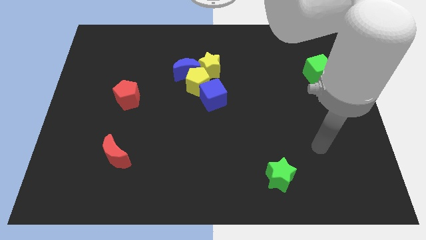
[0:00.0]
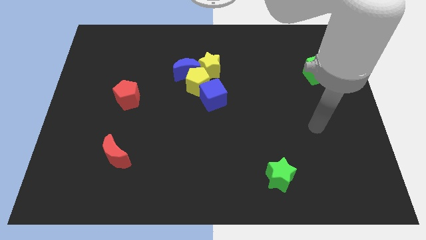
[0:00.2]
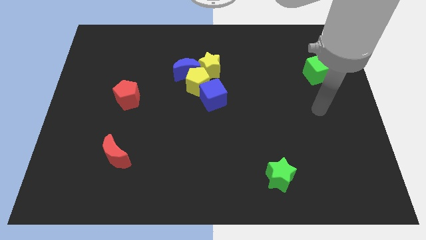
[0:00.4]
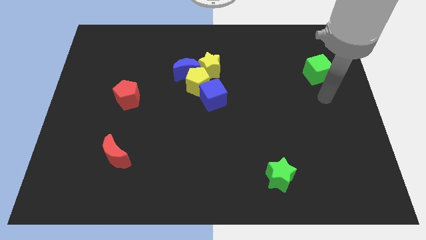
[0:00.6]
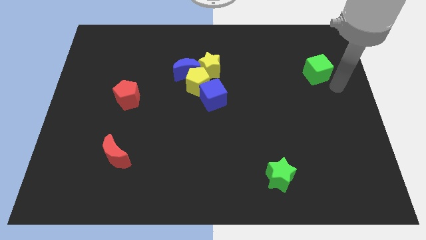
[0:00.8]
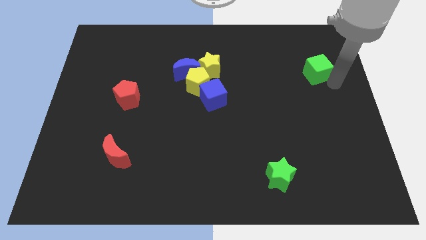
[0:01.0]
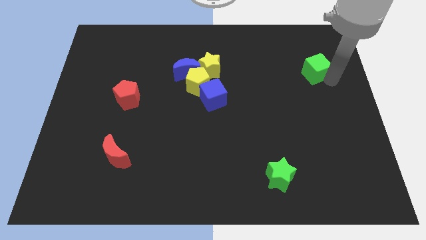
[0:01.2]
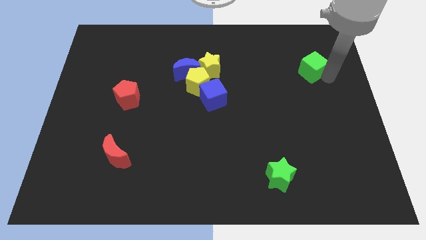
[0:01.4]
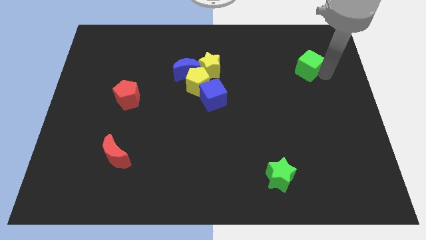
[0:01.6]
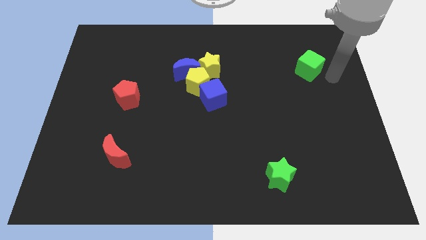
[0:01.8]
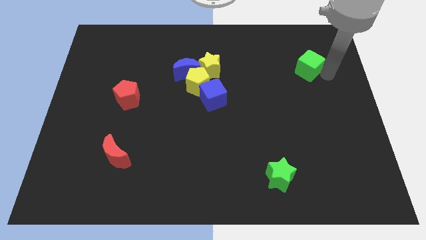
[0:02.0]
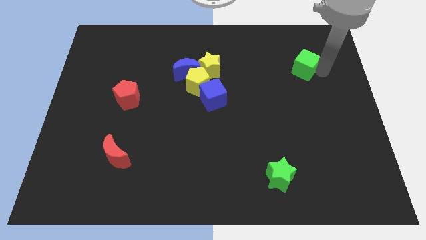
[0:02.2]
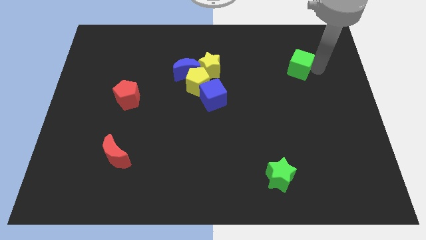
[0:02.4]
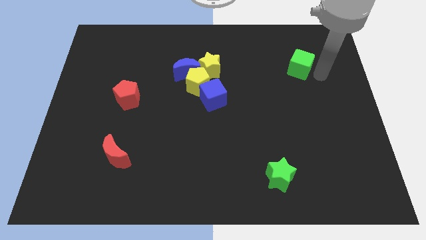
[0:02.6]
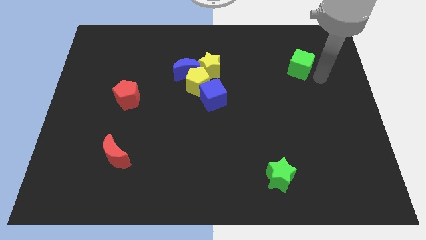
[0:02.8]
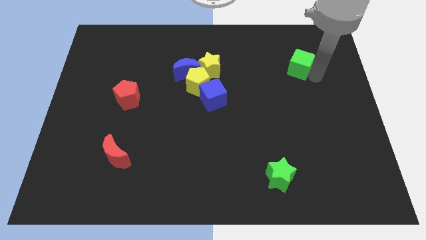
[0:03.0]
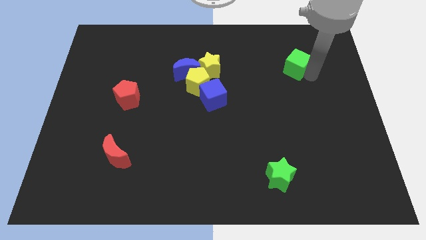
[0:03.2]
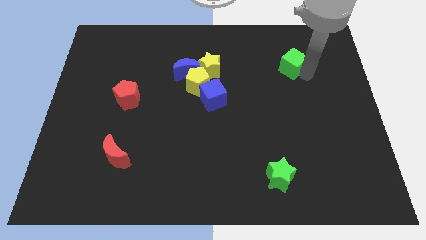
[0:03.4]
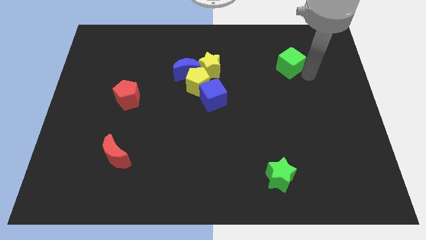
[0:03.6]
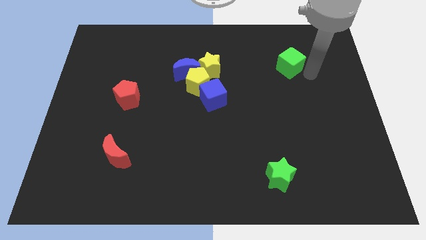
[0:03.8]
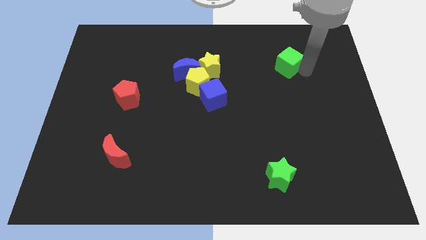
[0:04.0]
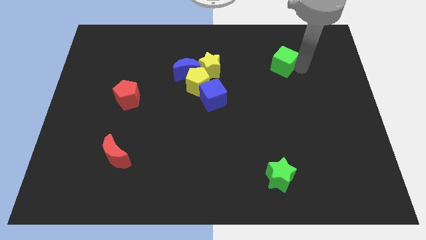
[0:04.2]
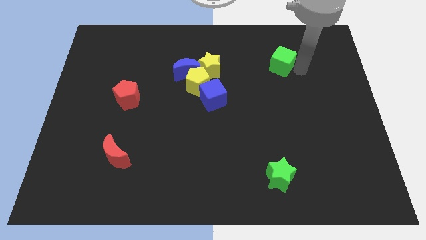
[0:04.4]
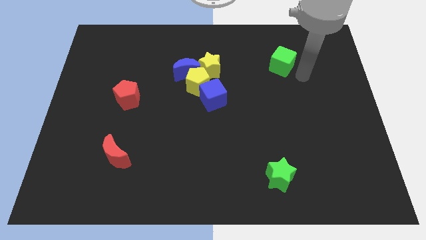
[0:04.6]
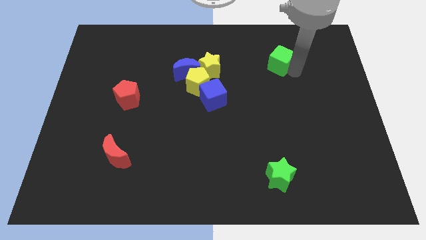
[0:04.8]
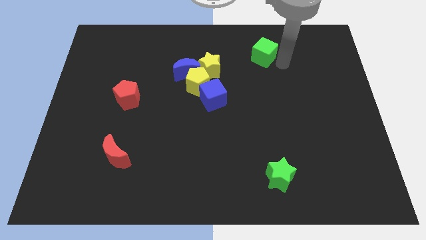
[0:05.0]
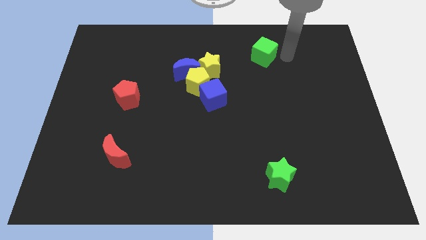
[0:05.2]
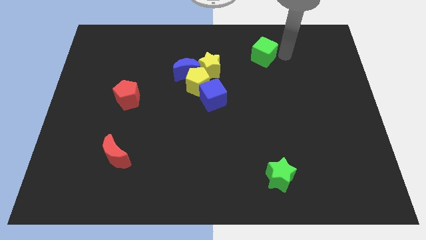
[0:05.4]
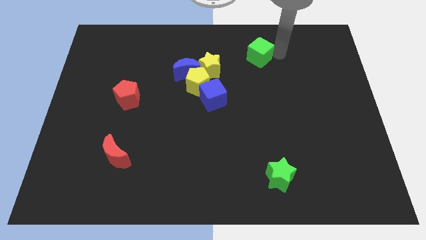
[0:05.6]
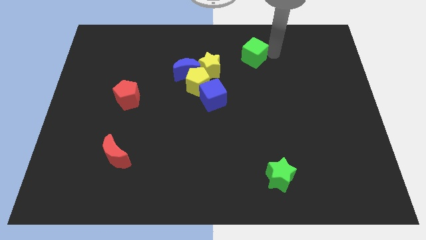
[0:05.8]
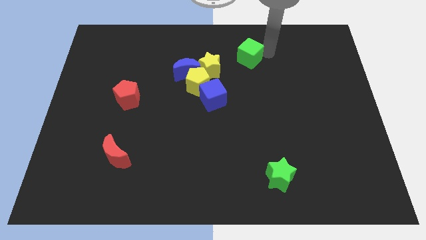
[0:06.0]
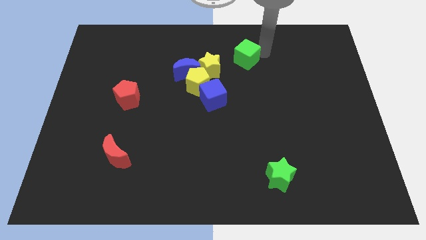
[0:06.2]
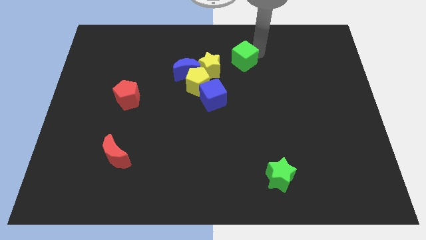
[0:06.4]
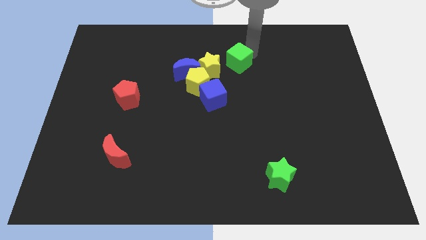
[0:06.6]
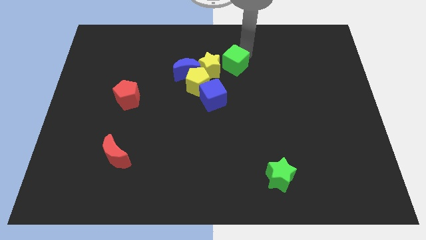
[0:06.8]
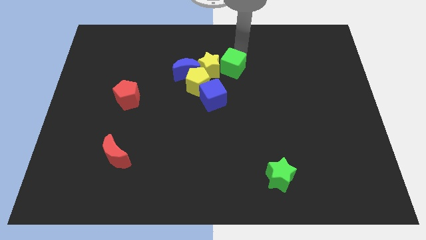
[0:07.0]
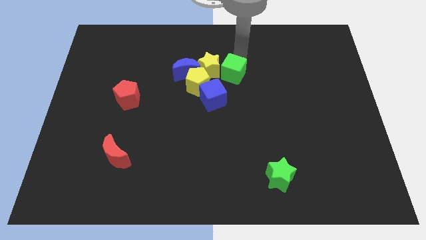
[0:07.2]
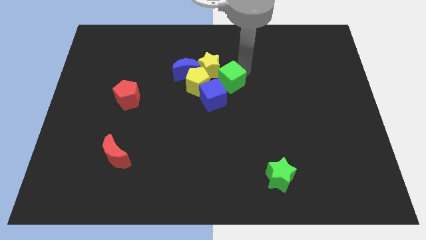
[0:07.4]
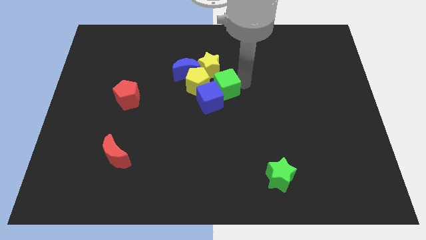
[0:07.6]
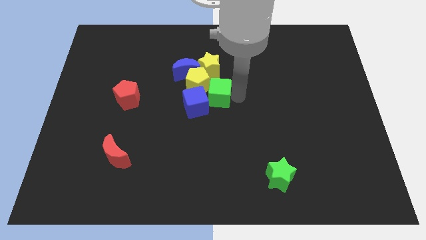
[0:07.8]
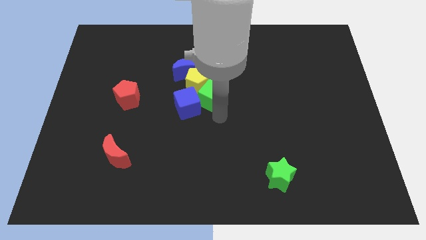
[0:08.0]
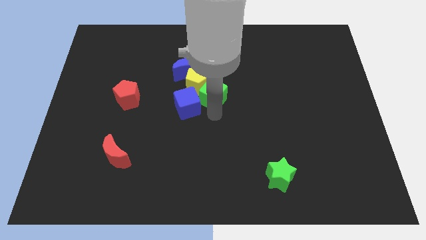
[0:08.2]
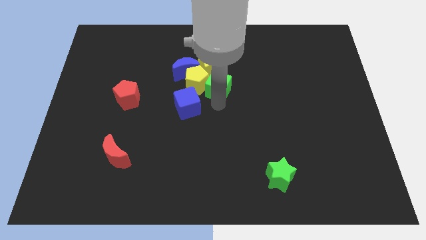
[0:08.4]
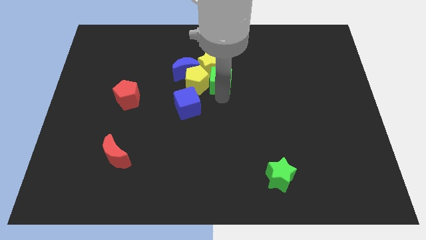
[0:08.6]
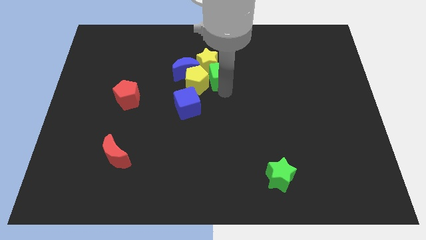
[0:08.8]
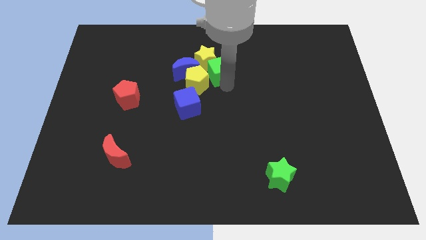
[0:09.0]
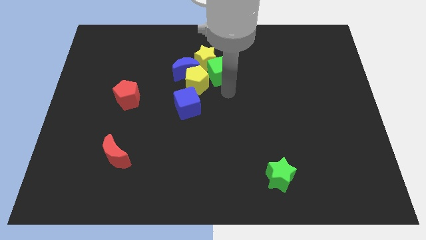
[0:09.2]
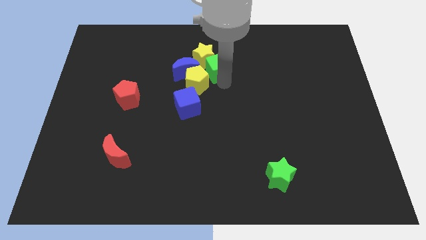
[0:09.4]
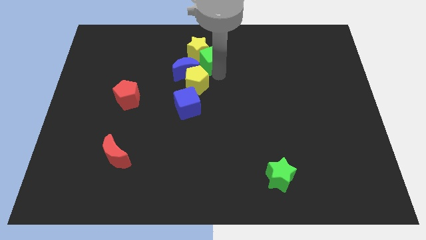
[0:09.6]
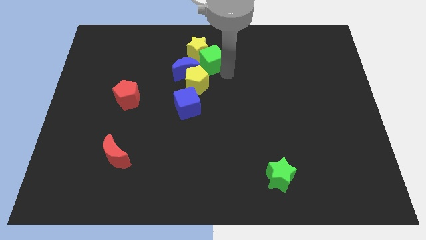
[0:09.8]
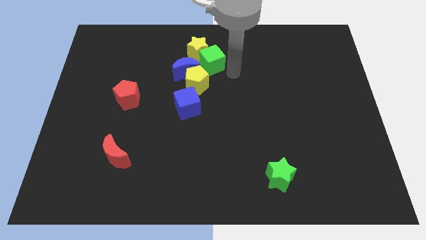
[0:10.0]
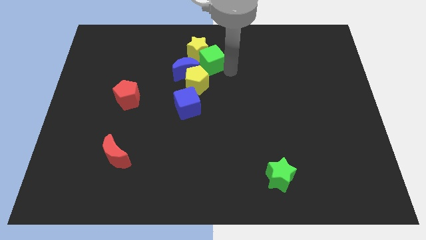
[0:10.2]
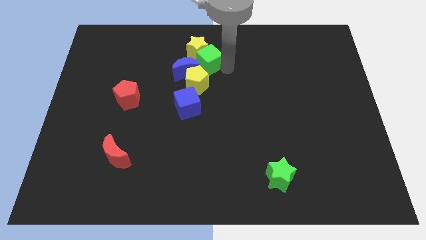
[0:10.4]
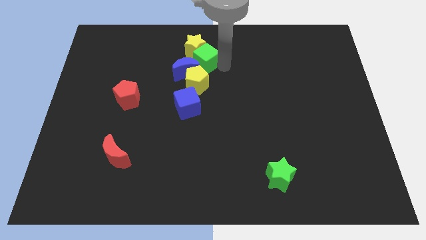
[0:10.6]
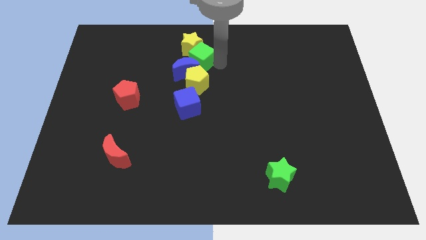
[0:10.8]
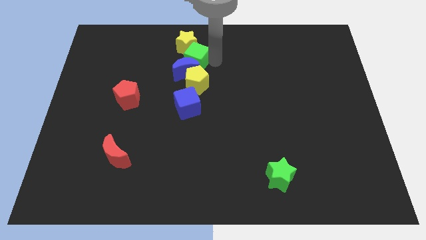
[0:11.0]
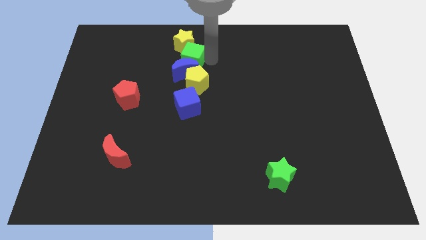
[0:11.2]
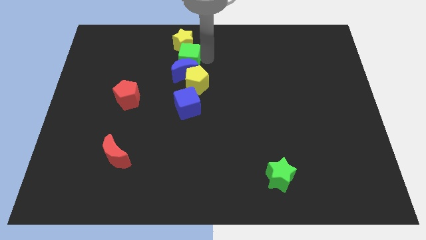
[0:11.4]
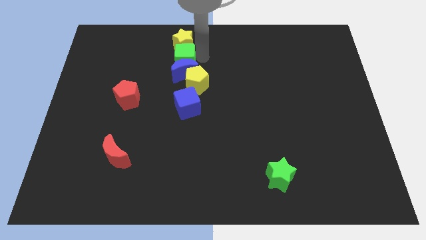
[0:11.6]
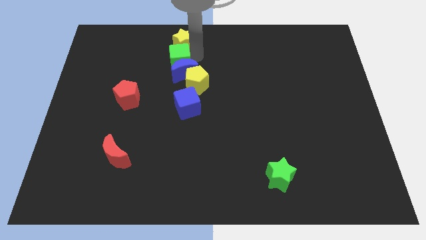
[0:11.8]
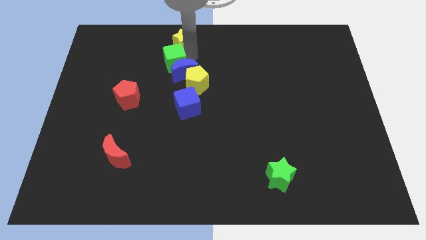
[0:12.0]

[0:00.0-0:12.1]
move the green cube just left of the blue moon
